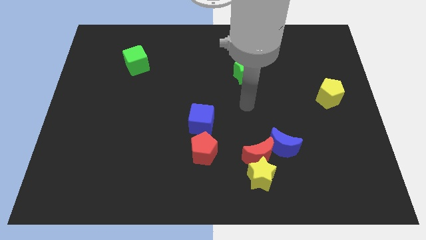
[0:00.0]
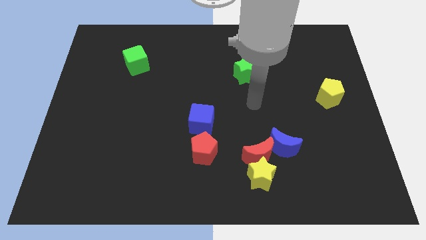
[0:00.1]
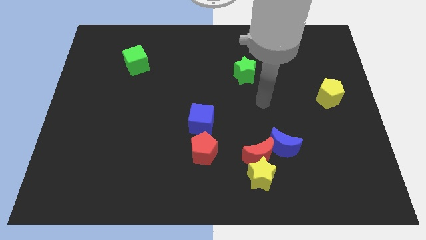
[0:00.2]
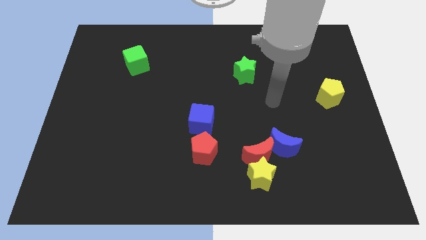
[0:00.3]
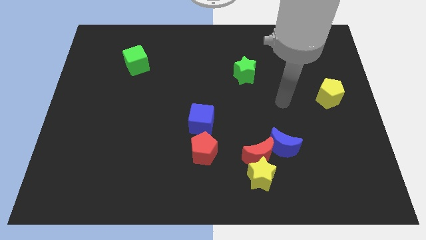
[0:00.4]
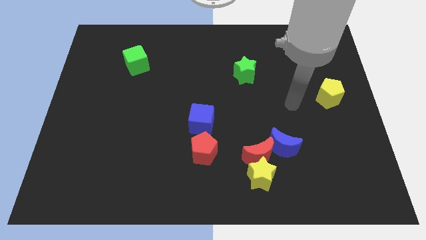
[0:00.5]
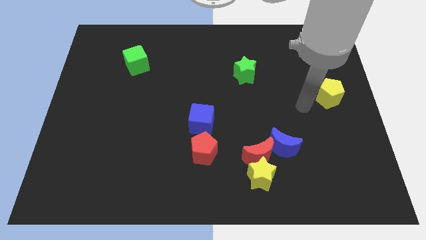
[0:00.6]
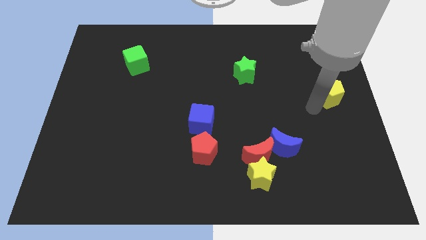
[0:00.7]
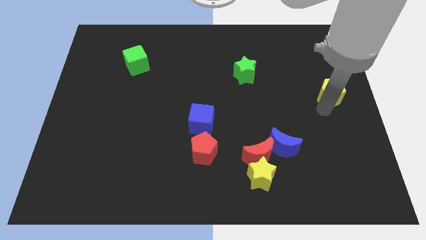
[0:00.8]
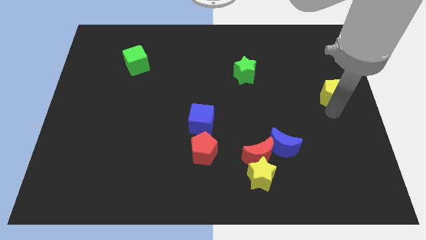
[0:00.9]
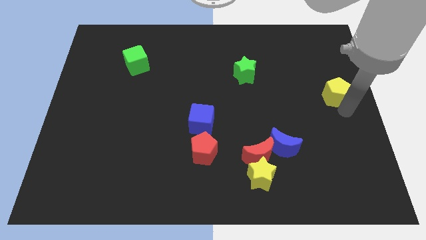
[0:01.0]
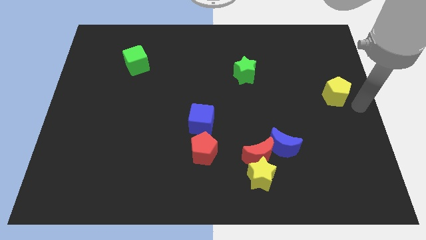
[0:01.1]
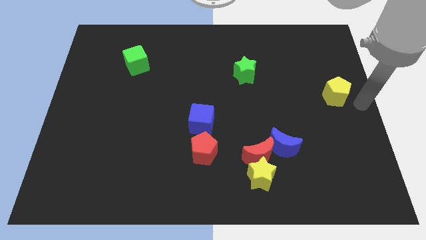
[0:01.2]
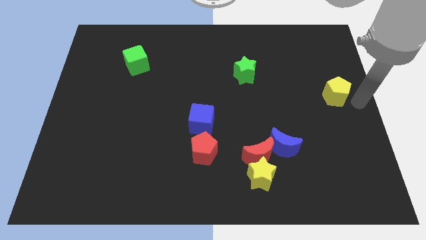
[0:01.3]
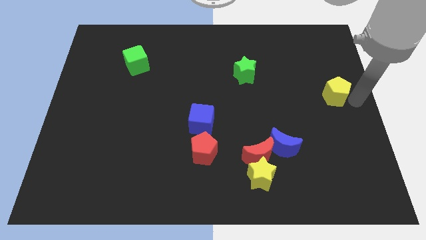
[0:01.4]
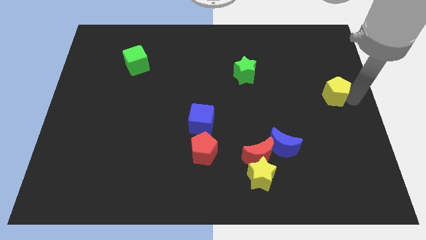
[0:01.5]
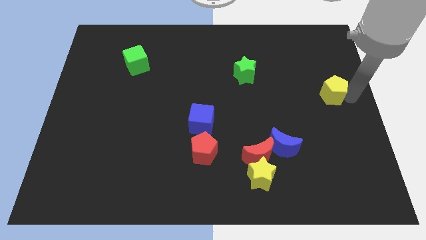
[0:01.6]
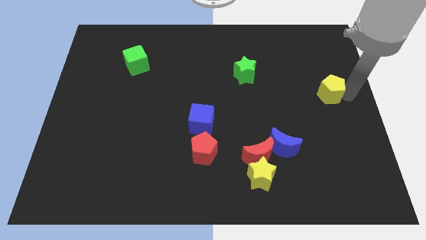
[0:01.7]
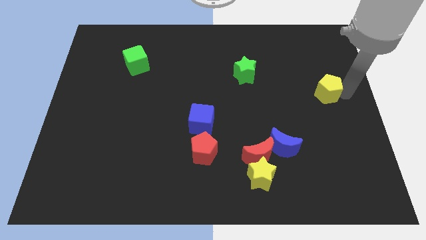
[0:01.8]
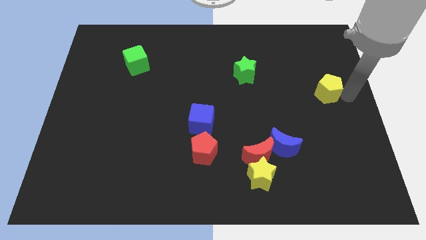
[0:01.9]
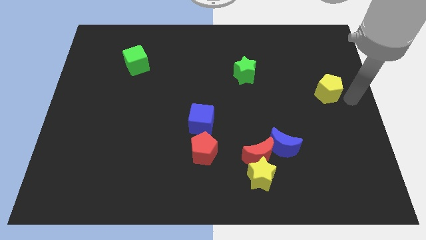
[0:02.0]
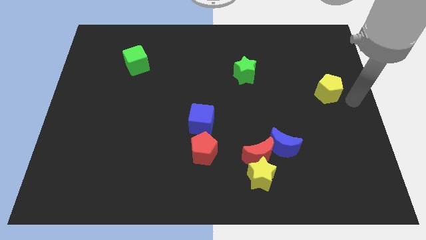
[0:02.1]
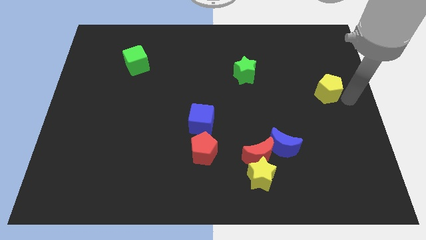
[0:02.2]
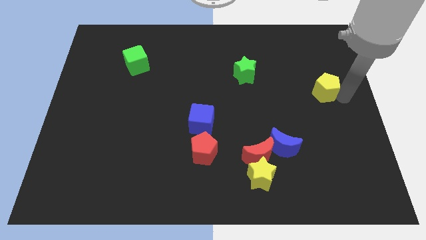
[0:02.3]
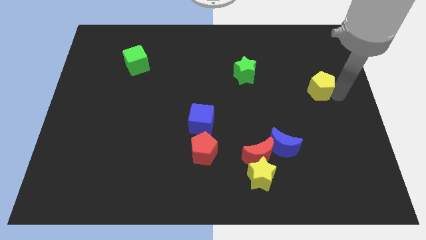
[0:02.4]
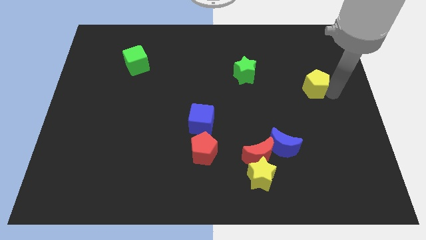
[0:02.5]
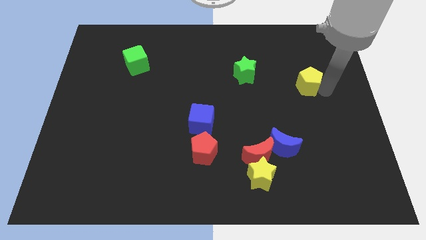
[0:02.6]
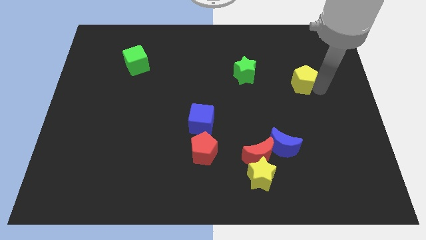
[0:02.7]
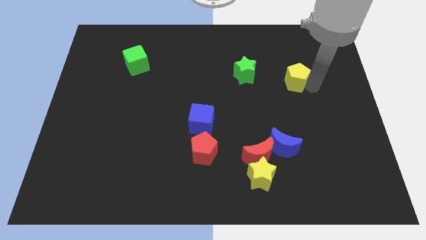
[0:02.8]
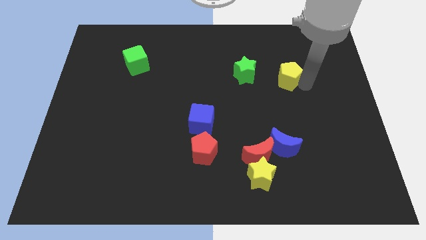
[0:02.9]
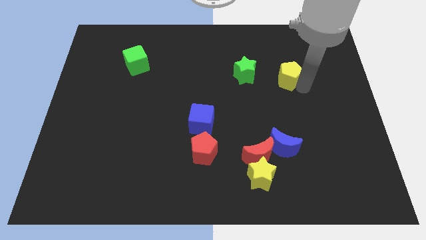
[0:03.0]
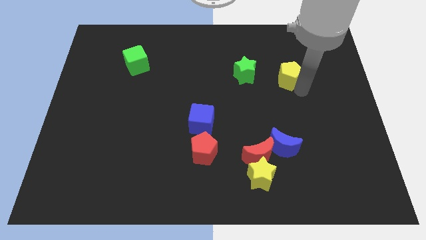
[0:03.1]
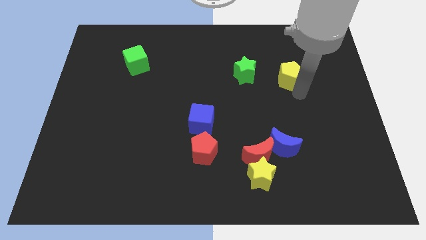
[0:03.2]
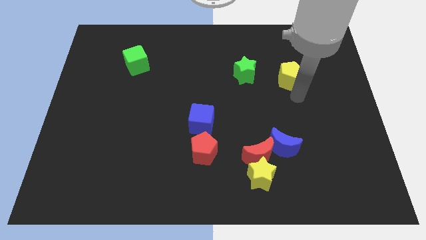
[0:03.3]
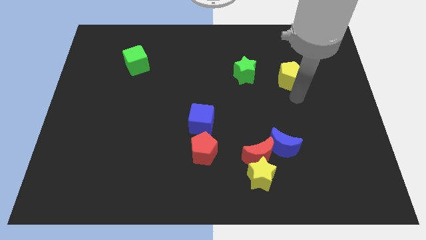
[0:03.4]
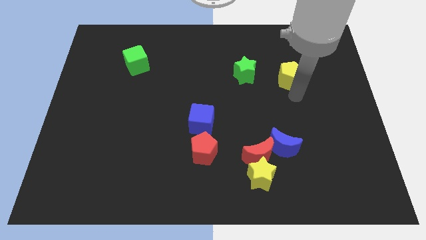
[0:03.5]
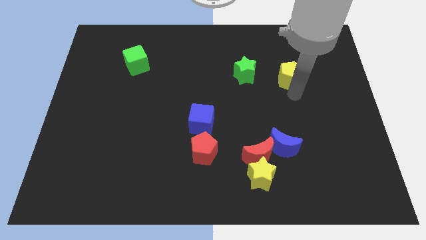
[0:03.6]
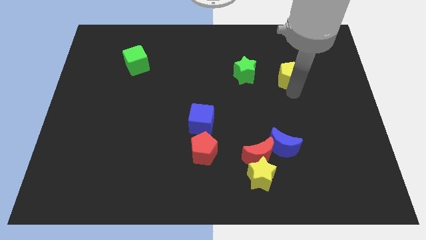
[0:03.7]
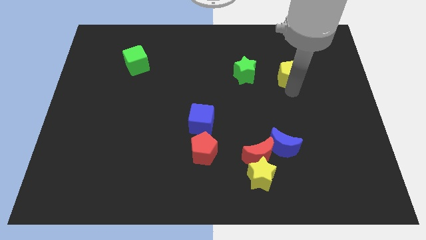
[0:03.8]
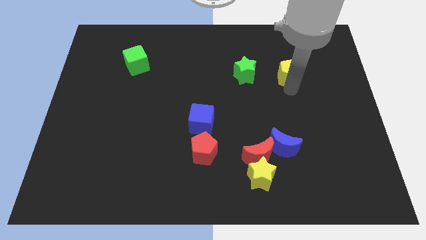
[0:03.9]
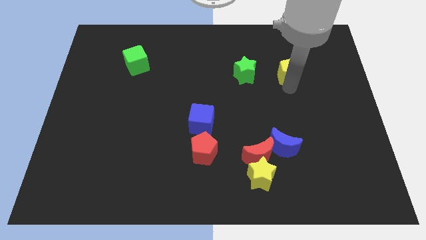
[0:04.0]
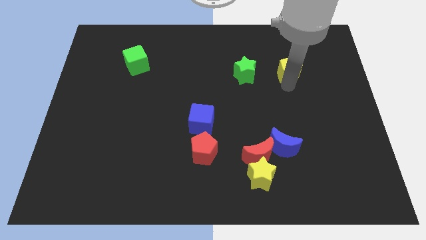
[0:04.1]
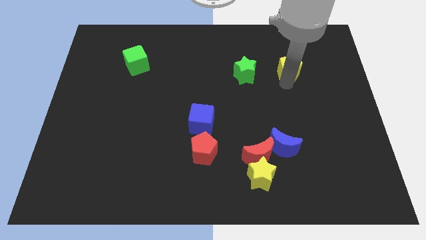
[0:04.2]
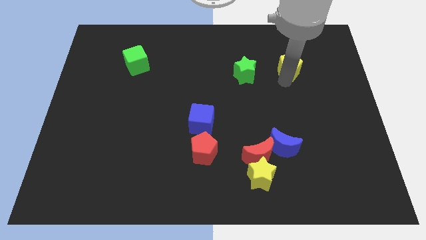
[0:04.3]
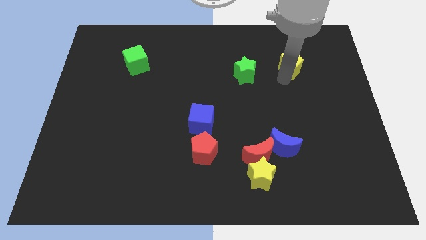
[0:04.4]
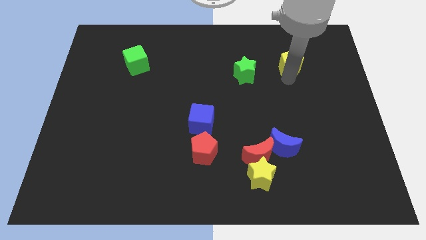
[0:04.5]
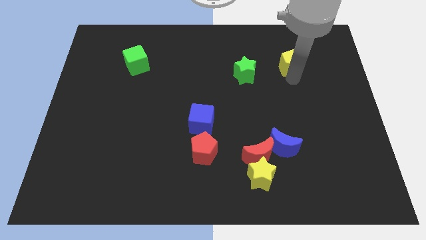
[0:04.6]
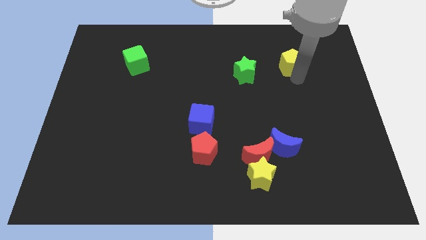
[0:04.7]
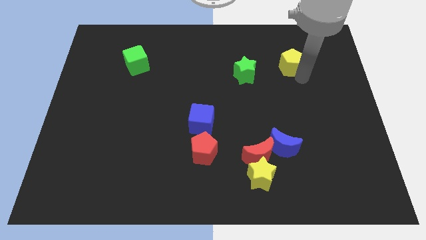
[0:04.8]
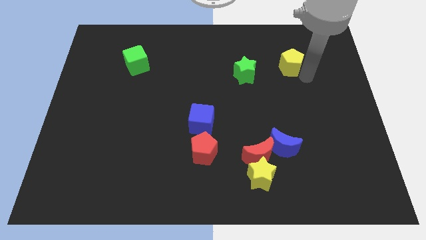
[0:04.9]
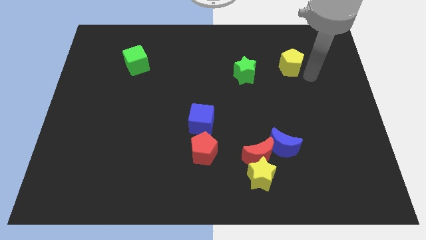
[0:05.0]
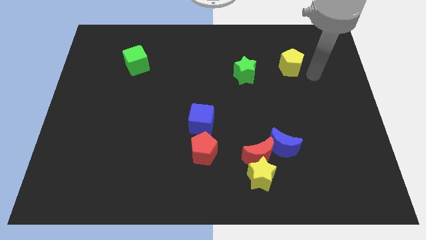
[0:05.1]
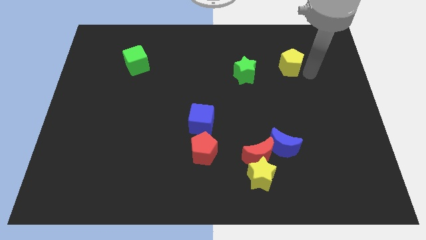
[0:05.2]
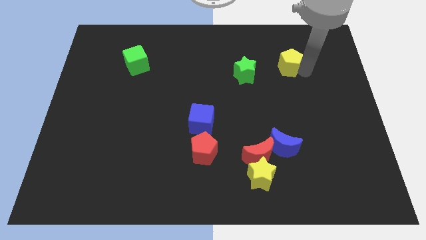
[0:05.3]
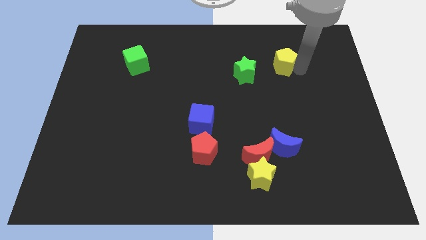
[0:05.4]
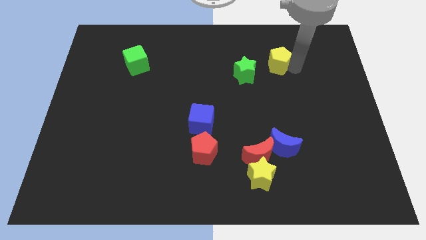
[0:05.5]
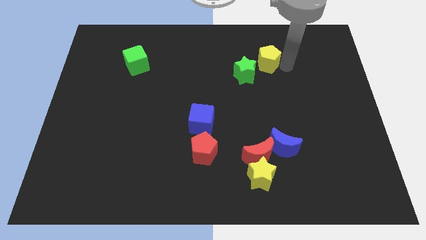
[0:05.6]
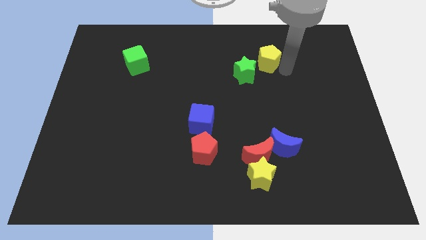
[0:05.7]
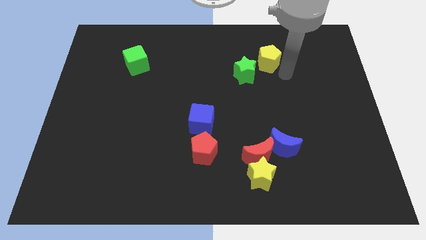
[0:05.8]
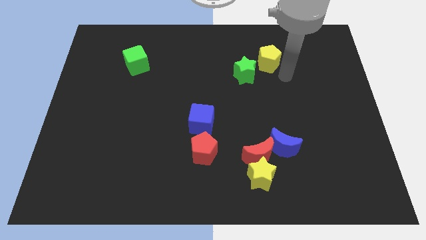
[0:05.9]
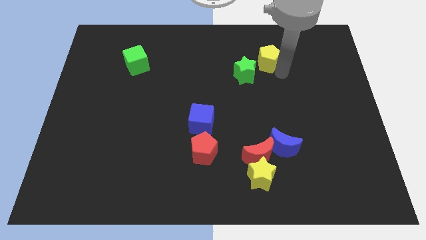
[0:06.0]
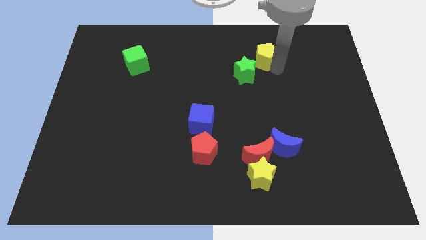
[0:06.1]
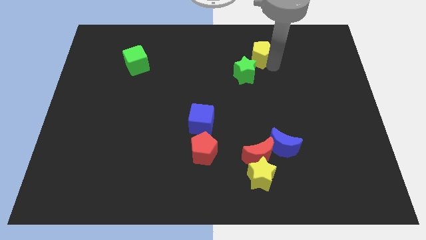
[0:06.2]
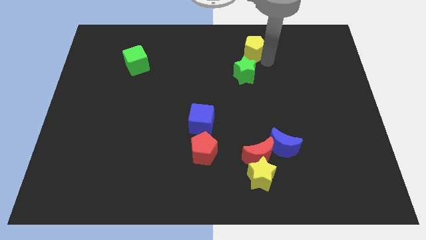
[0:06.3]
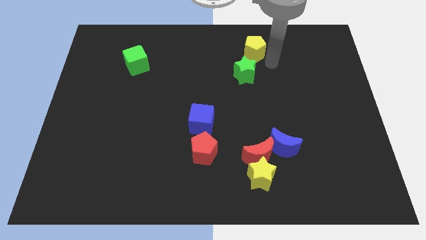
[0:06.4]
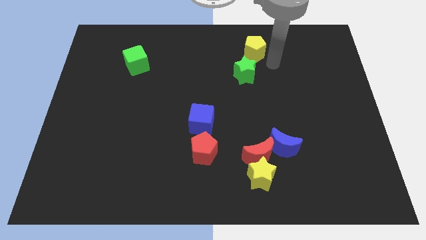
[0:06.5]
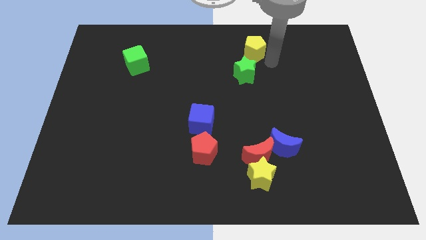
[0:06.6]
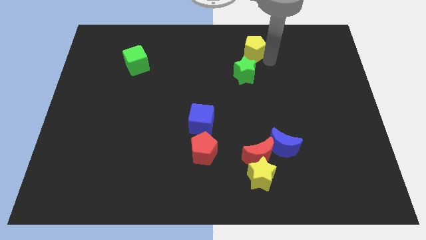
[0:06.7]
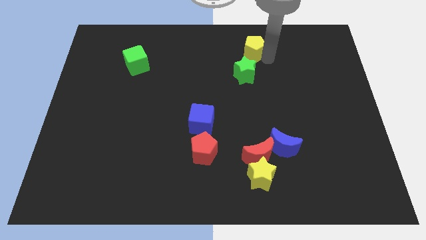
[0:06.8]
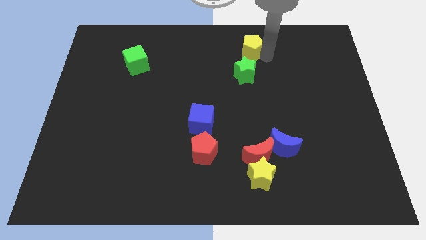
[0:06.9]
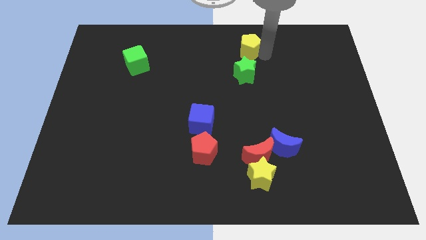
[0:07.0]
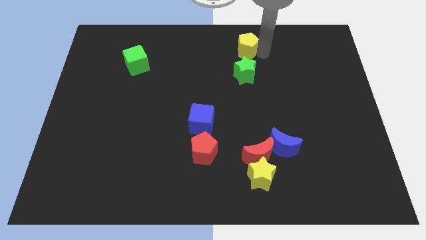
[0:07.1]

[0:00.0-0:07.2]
push the yellow pentagon to the top
